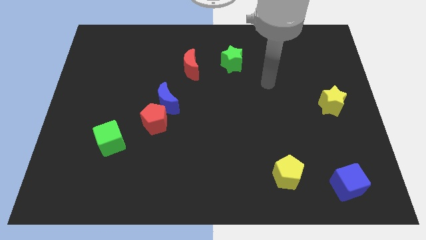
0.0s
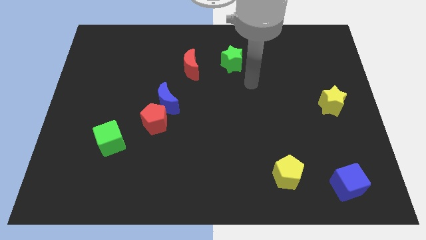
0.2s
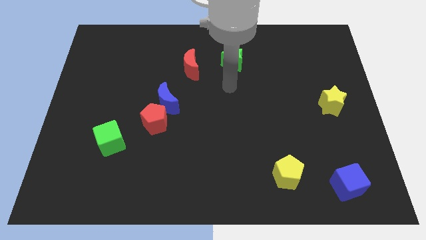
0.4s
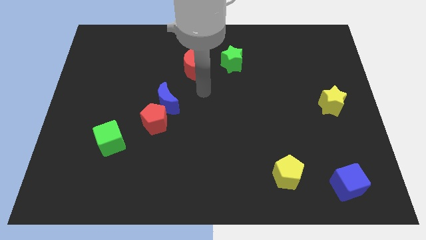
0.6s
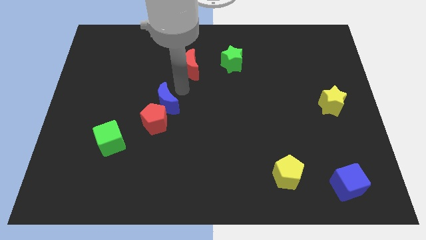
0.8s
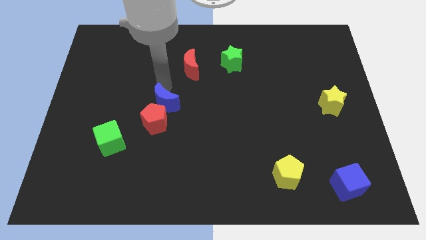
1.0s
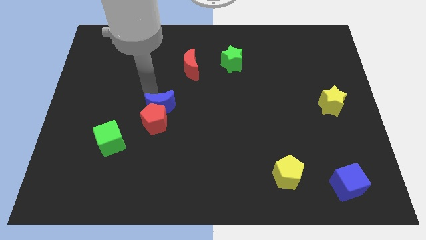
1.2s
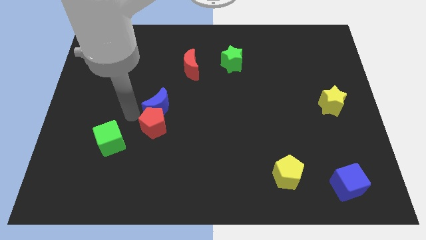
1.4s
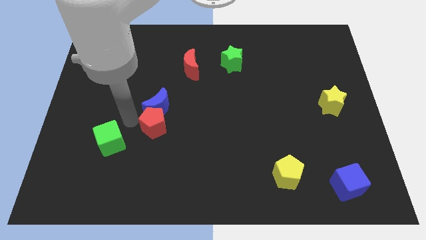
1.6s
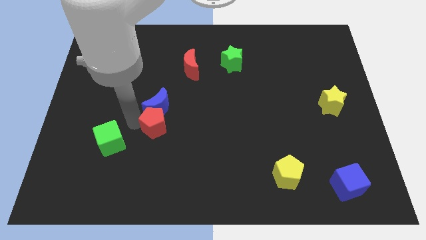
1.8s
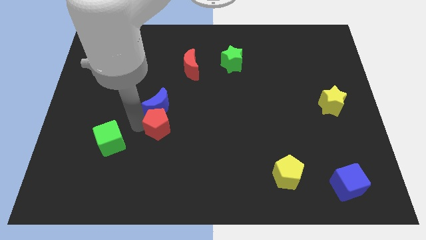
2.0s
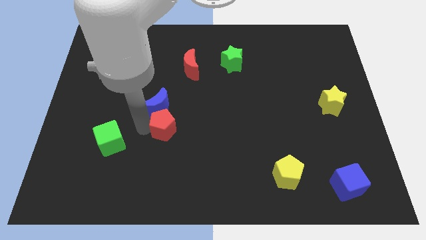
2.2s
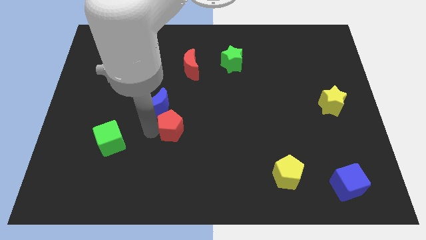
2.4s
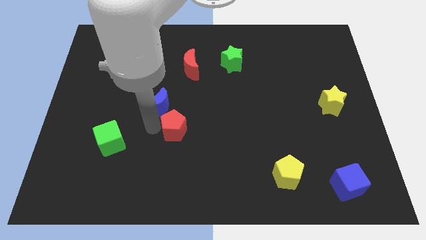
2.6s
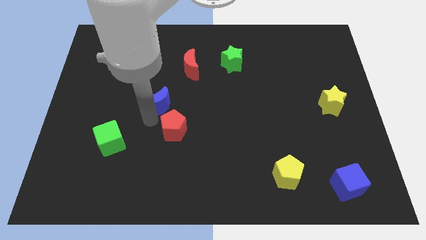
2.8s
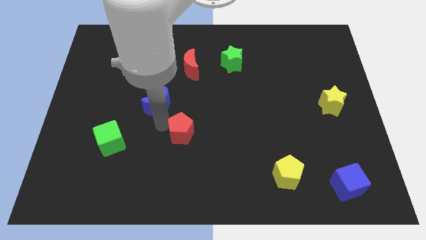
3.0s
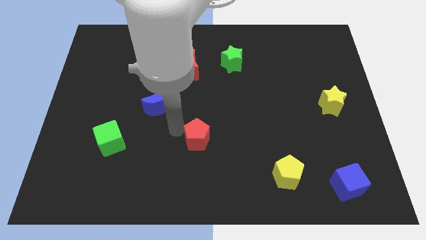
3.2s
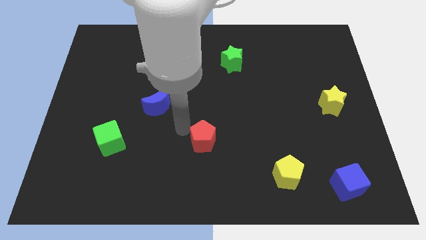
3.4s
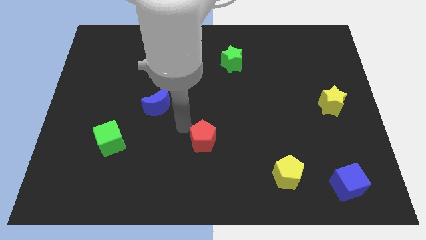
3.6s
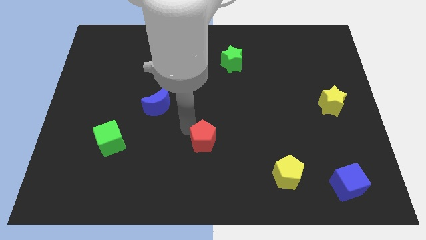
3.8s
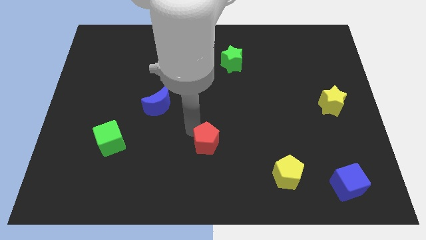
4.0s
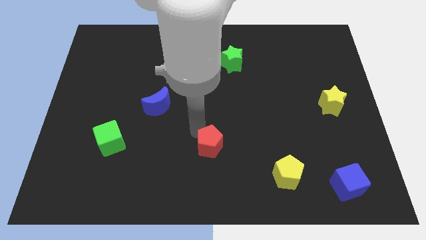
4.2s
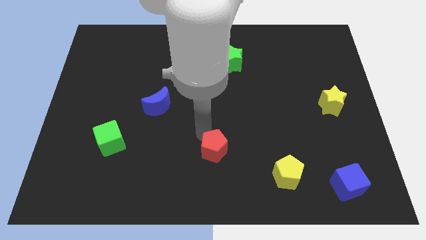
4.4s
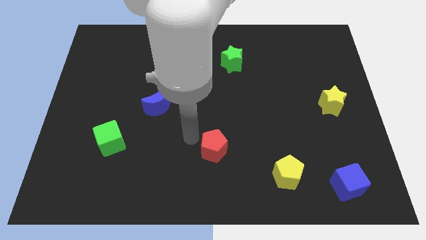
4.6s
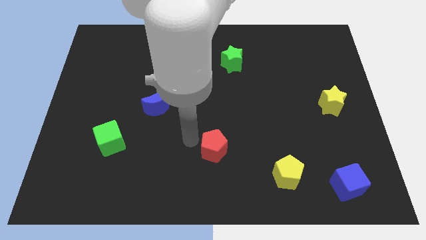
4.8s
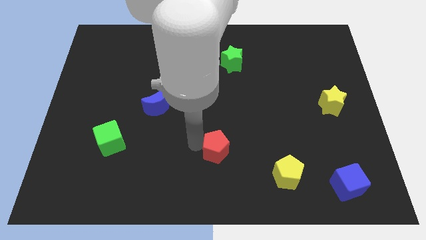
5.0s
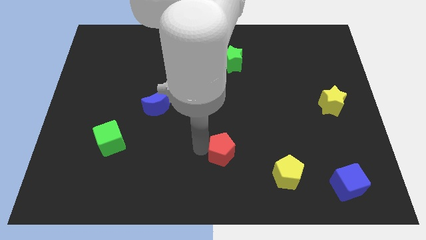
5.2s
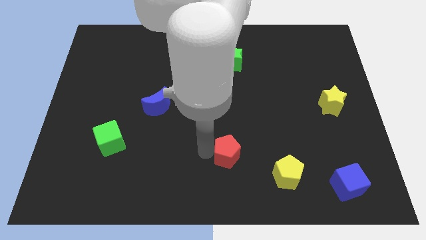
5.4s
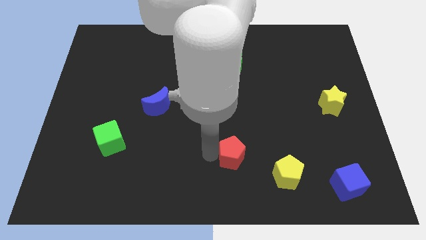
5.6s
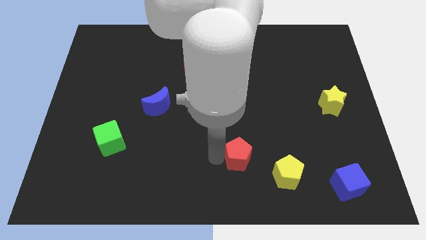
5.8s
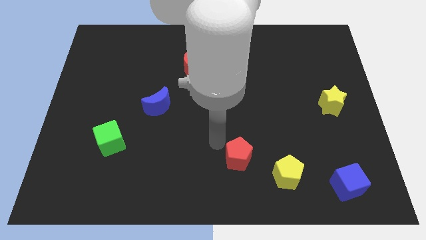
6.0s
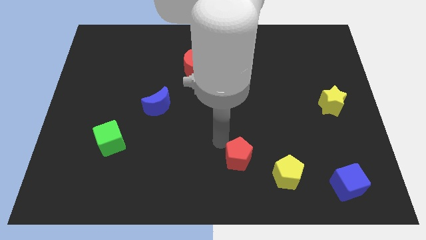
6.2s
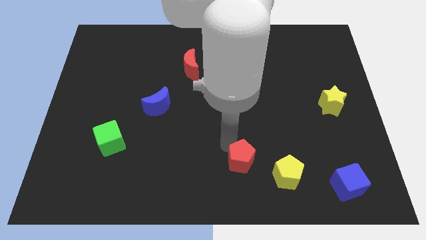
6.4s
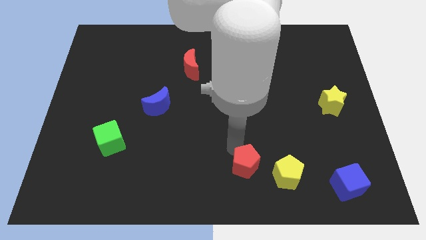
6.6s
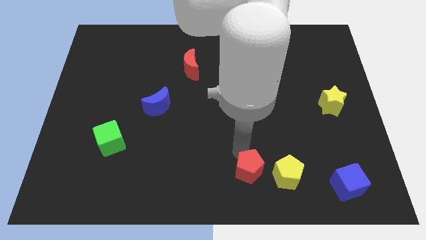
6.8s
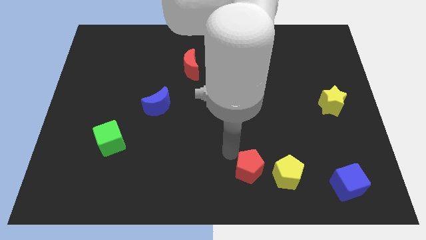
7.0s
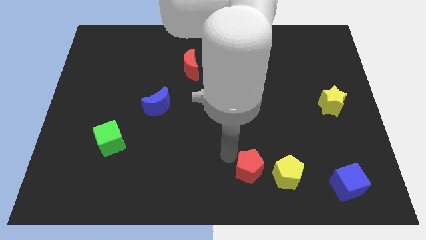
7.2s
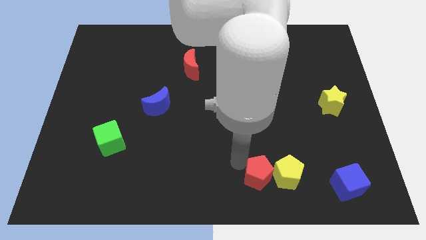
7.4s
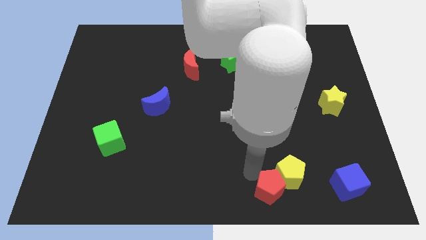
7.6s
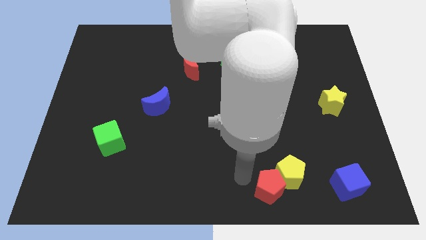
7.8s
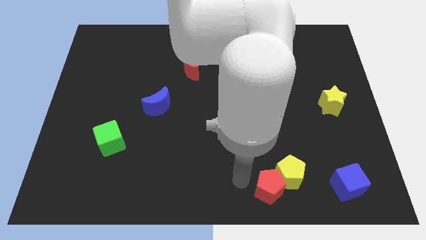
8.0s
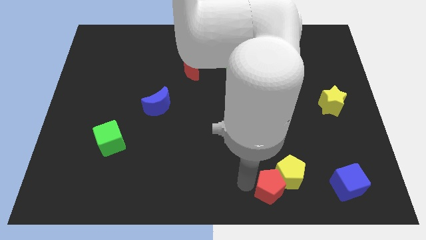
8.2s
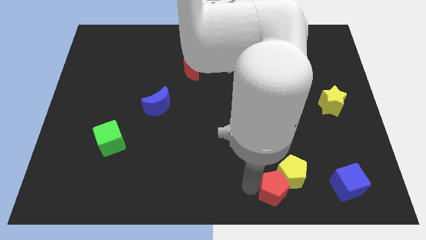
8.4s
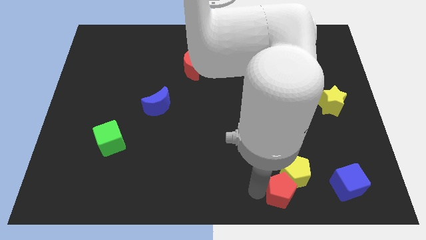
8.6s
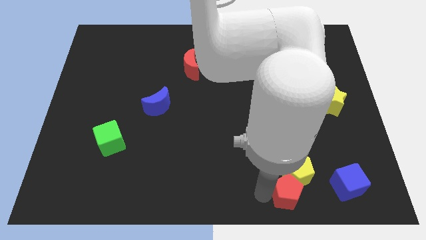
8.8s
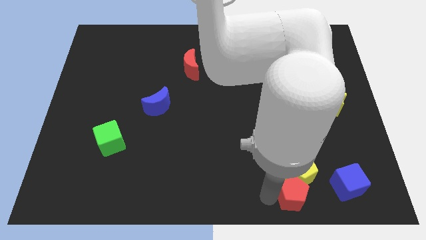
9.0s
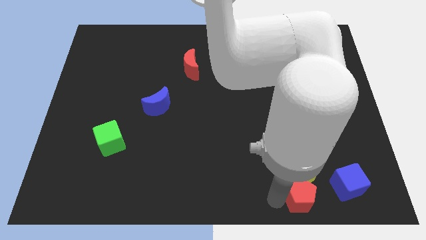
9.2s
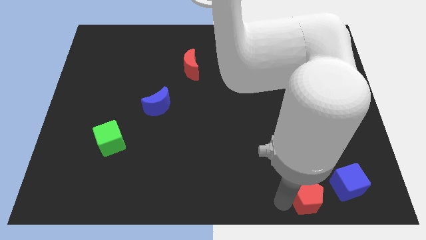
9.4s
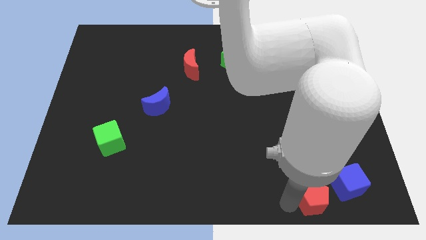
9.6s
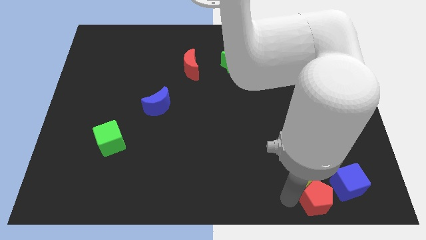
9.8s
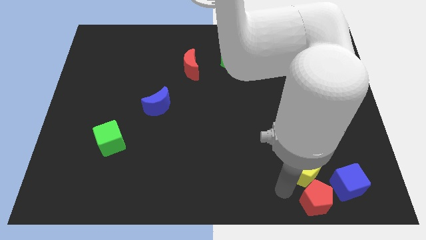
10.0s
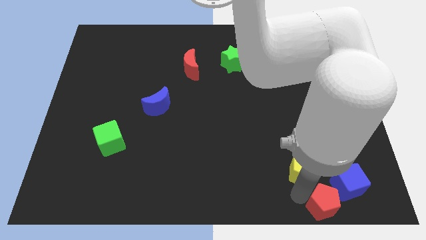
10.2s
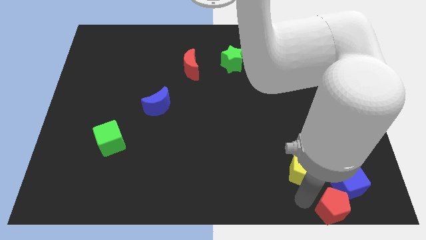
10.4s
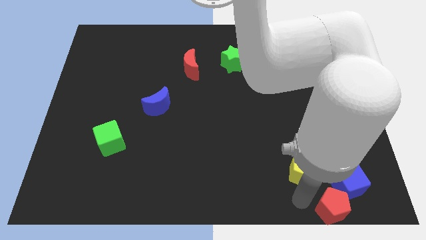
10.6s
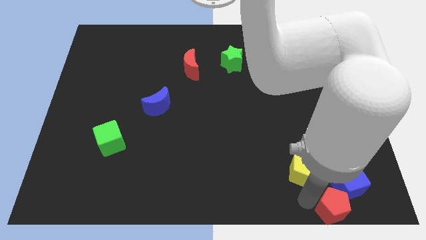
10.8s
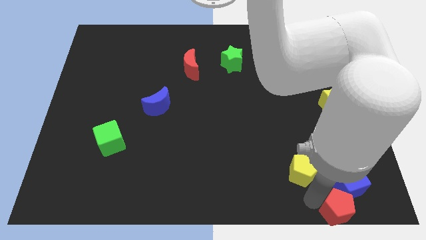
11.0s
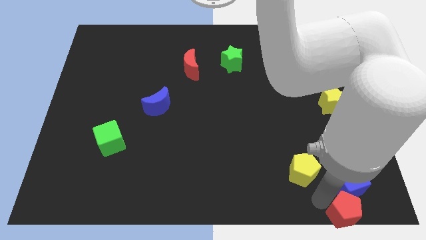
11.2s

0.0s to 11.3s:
slide the red pentagon to the bottom right corner

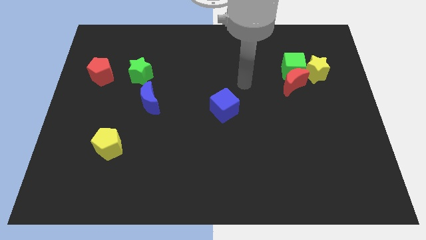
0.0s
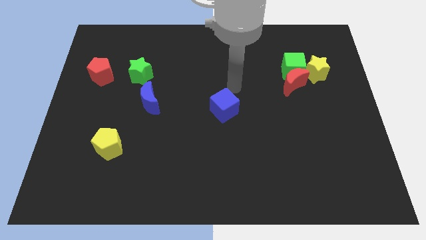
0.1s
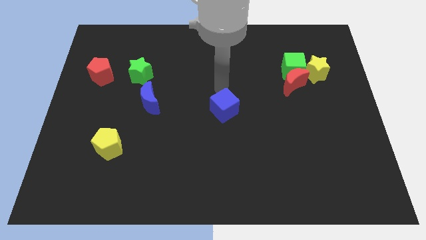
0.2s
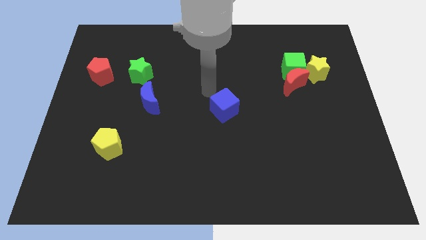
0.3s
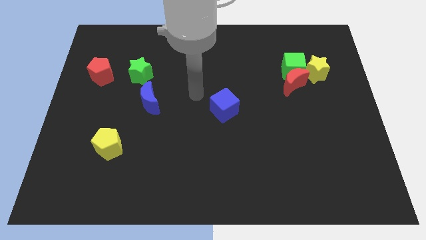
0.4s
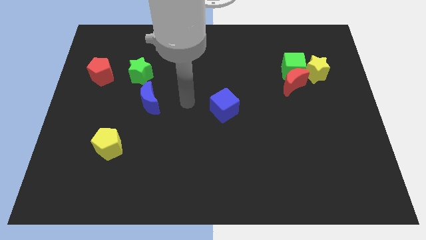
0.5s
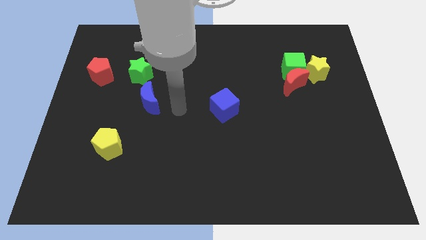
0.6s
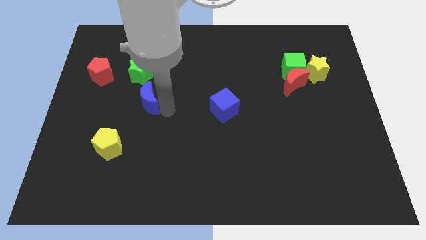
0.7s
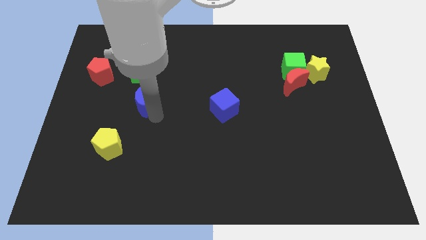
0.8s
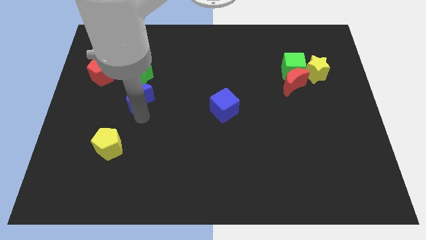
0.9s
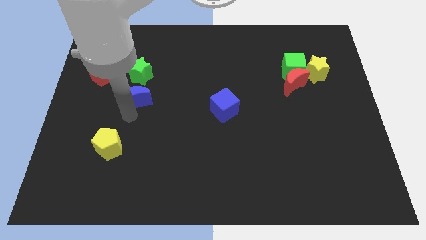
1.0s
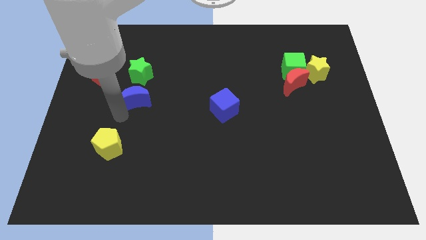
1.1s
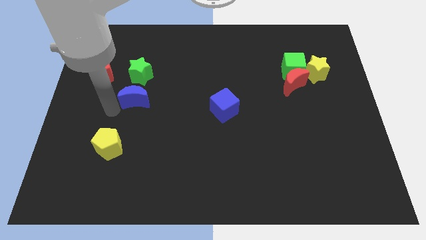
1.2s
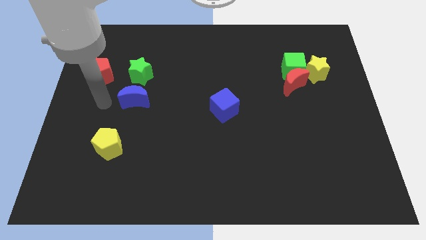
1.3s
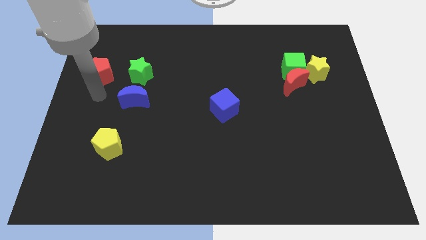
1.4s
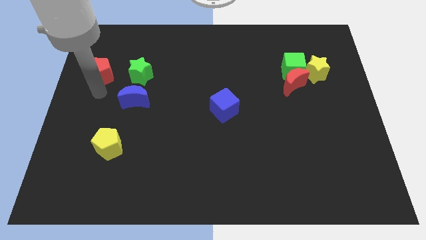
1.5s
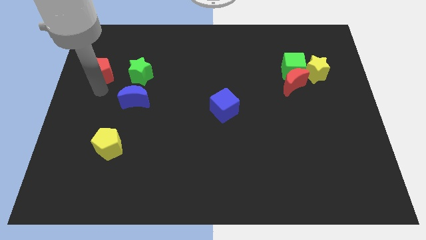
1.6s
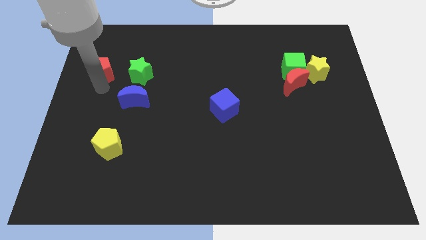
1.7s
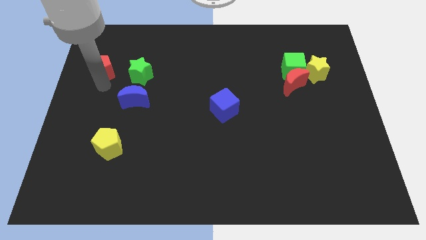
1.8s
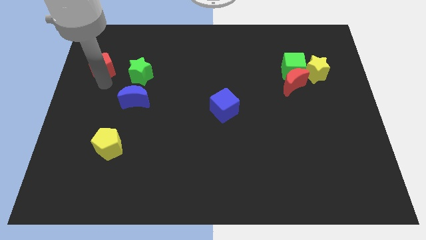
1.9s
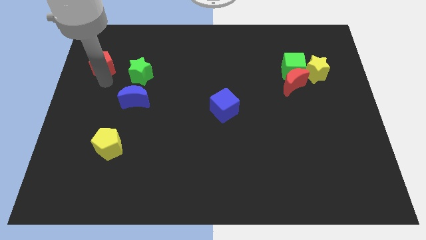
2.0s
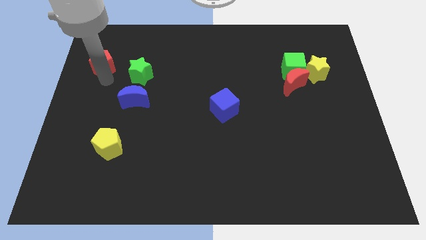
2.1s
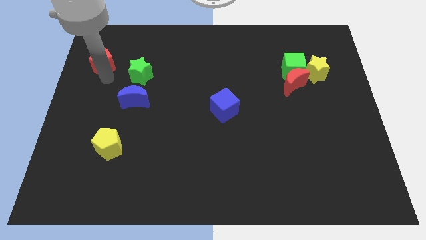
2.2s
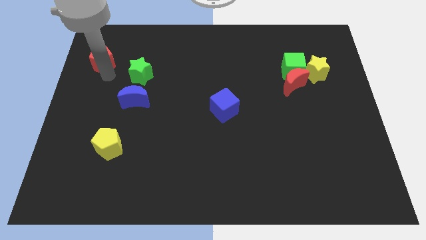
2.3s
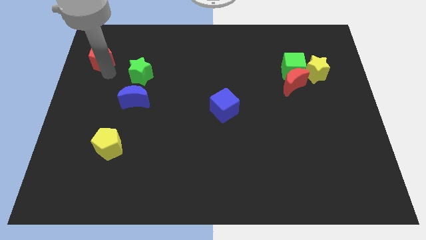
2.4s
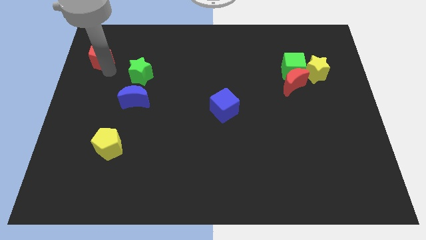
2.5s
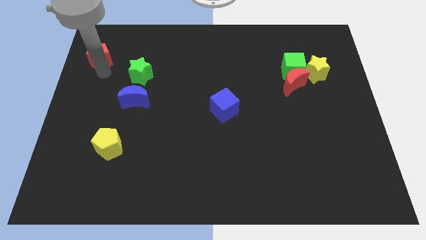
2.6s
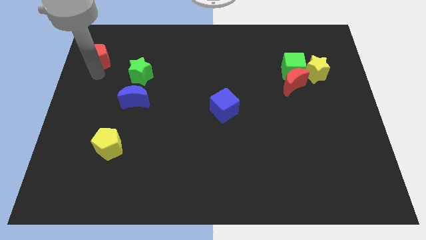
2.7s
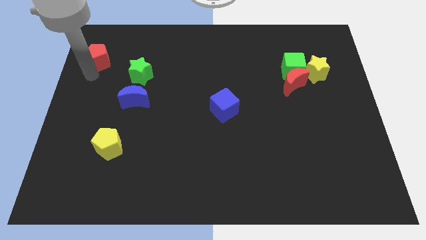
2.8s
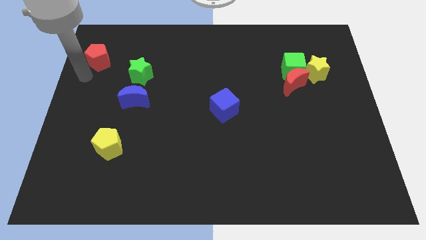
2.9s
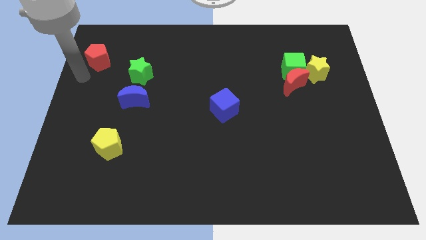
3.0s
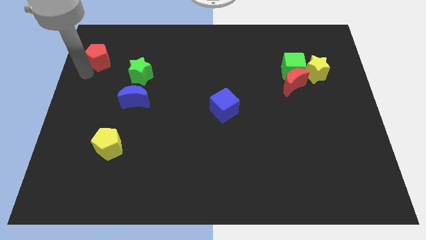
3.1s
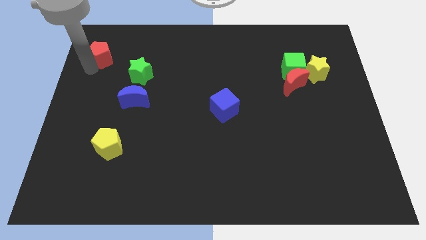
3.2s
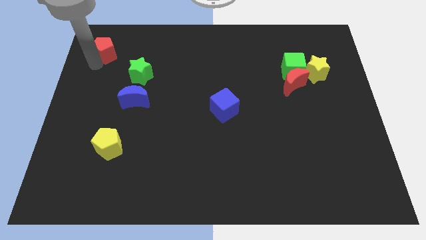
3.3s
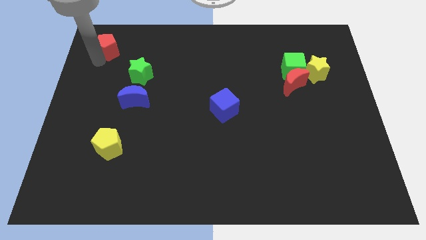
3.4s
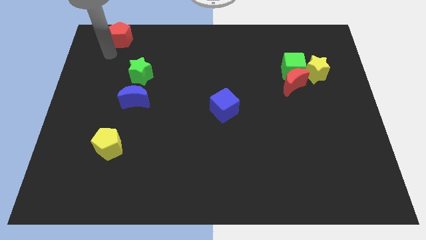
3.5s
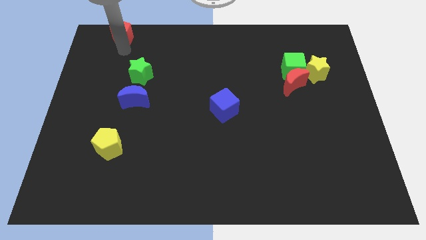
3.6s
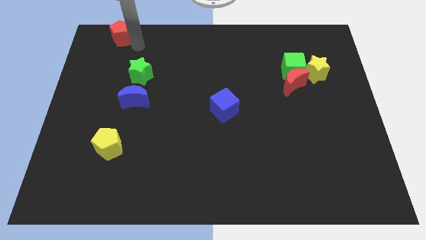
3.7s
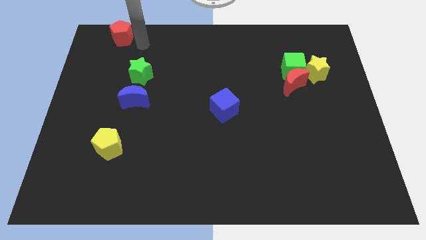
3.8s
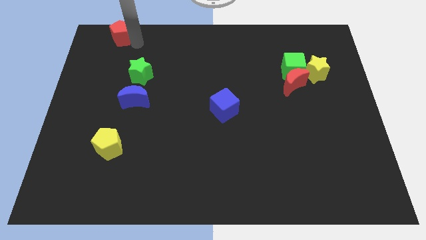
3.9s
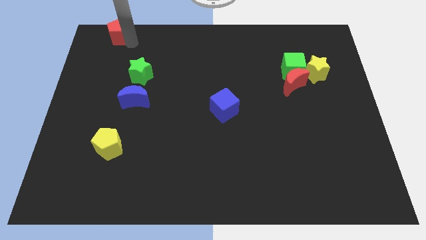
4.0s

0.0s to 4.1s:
push the red pentagon to the upper left corner
